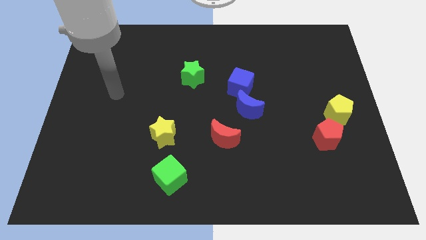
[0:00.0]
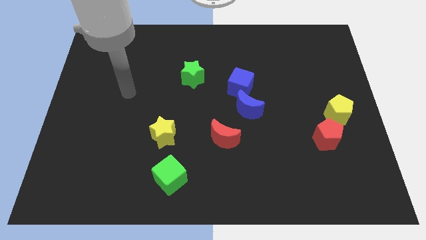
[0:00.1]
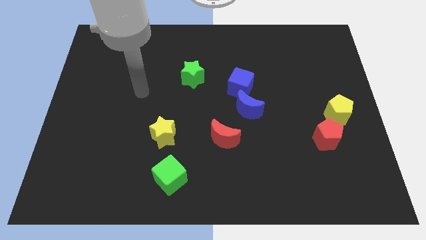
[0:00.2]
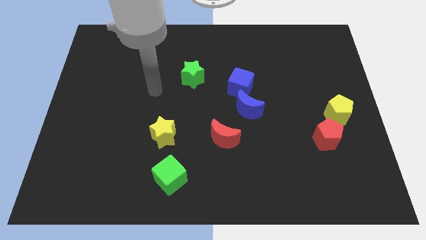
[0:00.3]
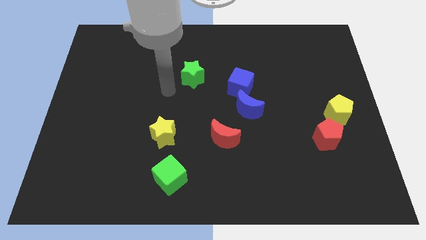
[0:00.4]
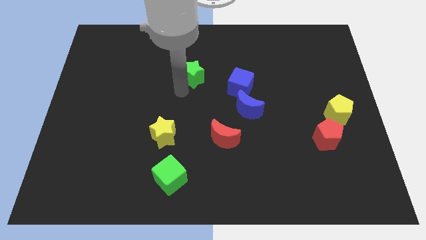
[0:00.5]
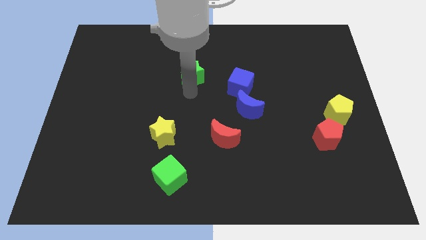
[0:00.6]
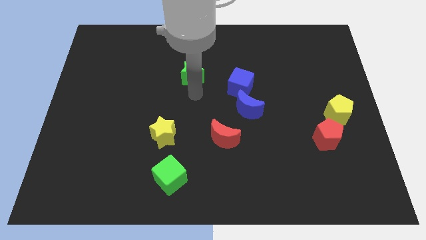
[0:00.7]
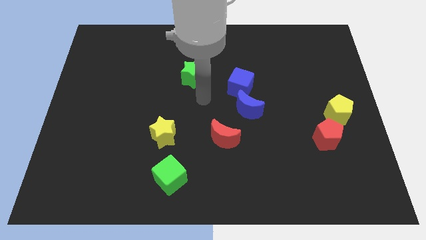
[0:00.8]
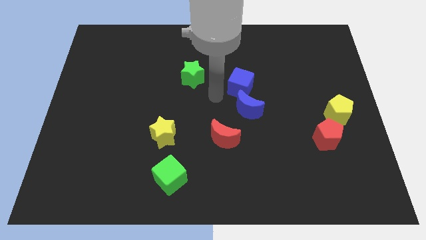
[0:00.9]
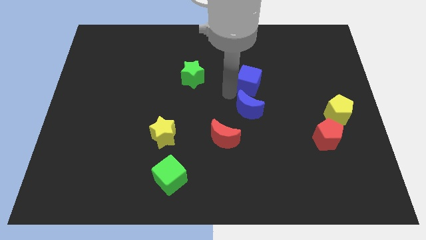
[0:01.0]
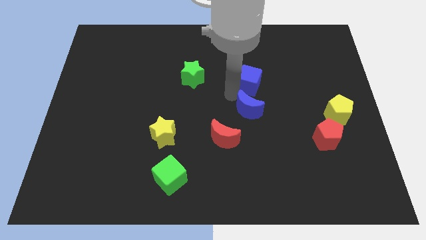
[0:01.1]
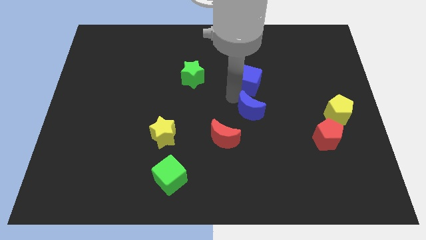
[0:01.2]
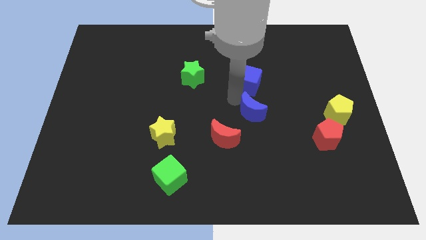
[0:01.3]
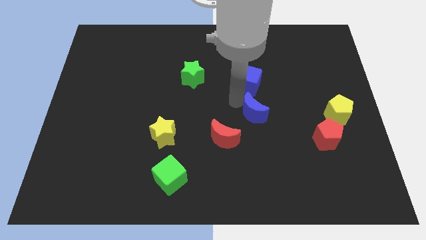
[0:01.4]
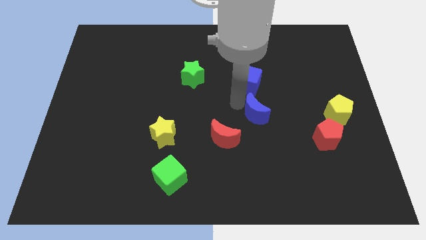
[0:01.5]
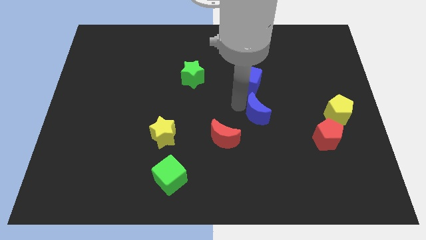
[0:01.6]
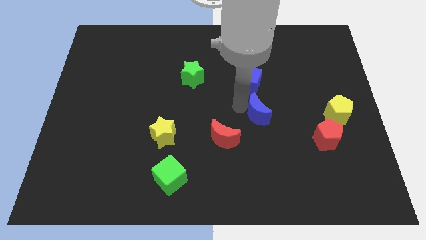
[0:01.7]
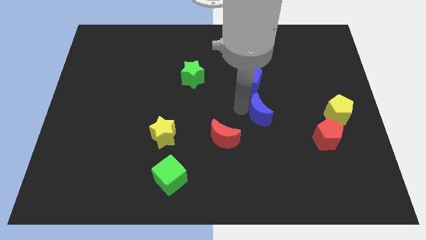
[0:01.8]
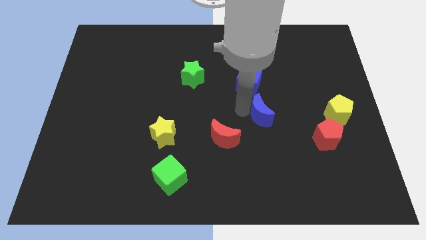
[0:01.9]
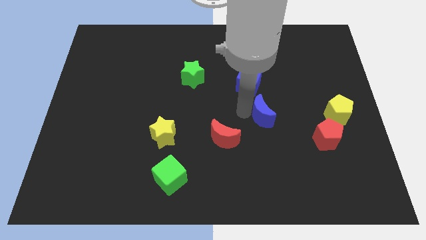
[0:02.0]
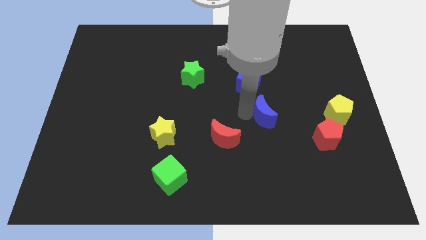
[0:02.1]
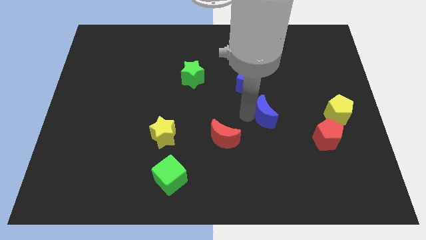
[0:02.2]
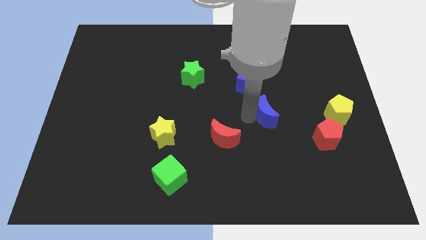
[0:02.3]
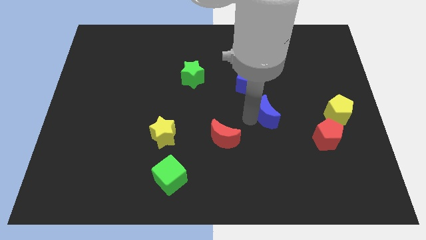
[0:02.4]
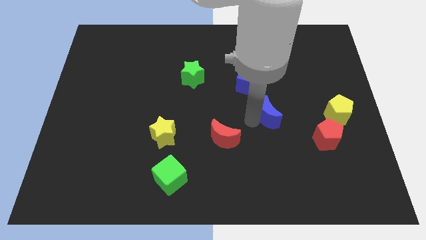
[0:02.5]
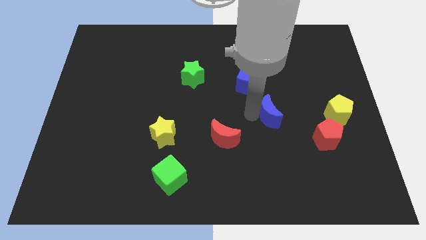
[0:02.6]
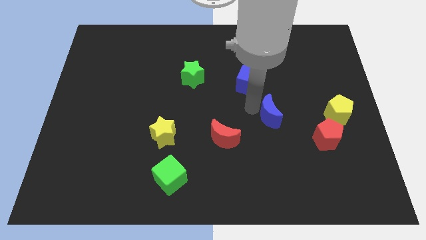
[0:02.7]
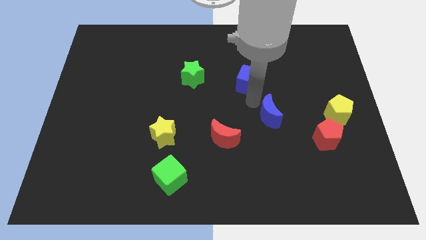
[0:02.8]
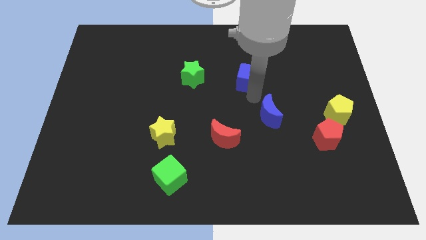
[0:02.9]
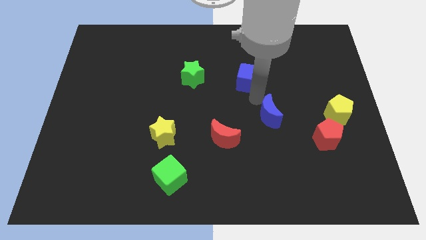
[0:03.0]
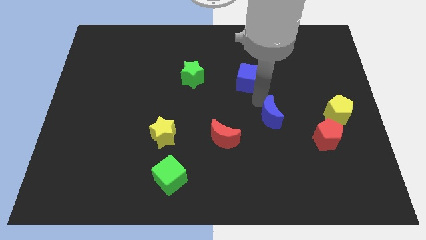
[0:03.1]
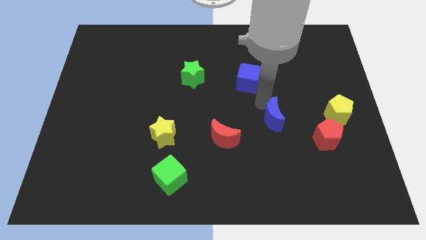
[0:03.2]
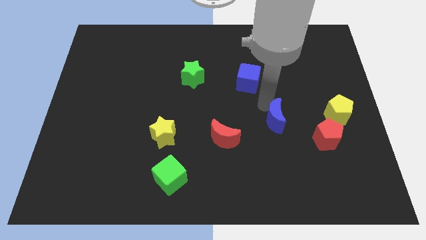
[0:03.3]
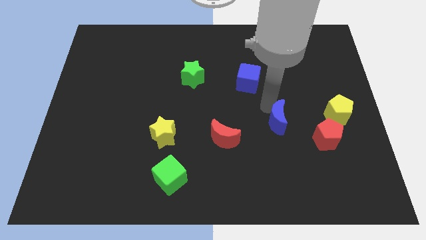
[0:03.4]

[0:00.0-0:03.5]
move the blue moon down and to the right a little bit

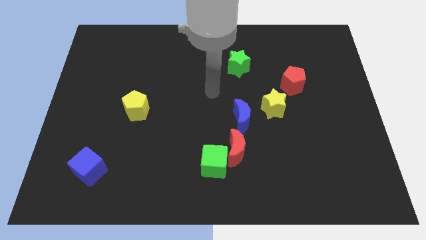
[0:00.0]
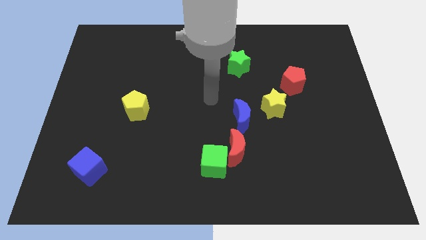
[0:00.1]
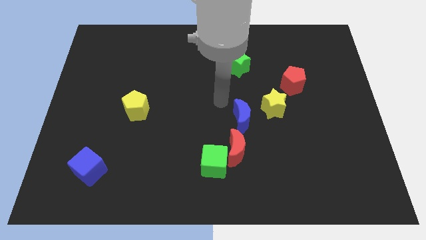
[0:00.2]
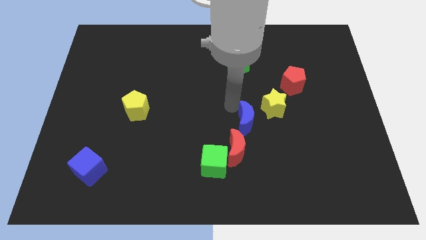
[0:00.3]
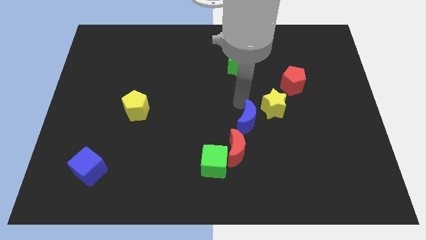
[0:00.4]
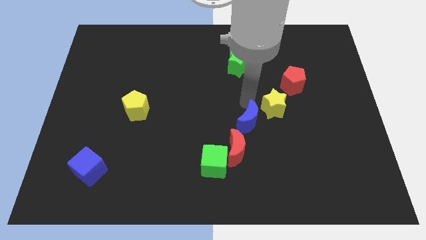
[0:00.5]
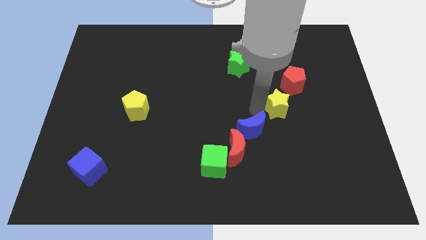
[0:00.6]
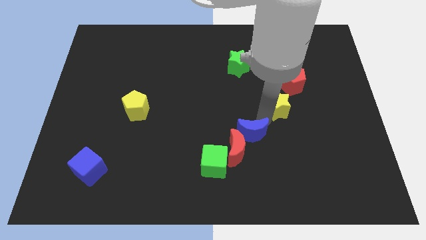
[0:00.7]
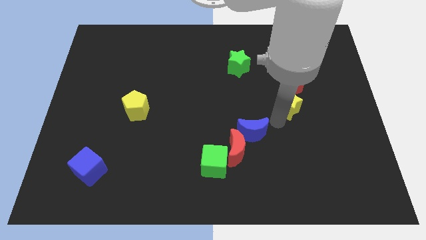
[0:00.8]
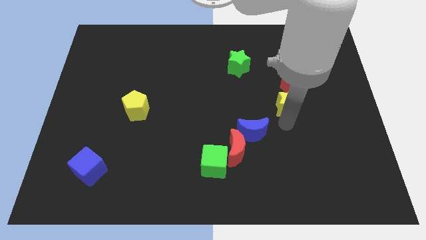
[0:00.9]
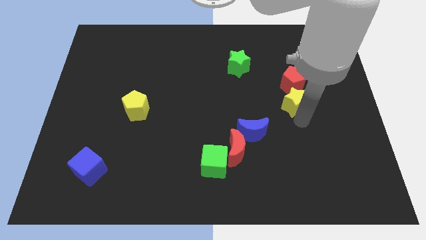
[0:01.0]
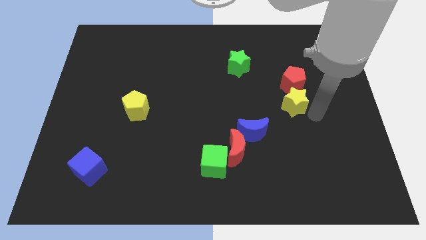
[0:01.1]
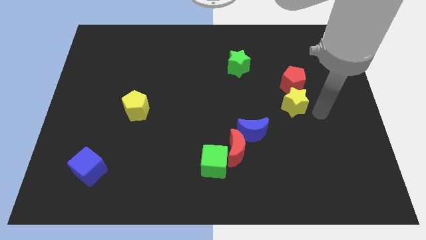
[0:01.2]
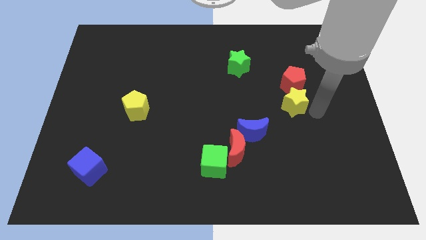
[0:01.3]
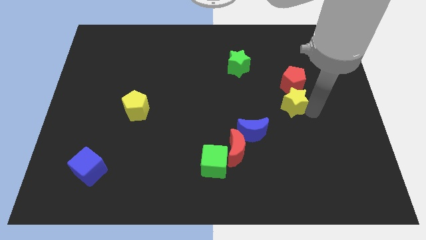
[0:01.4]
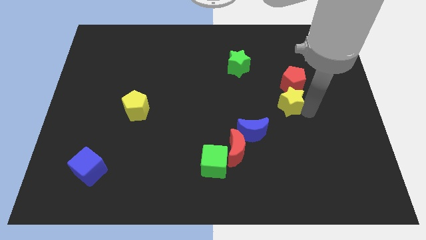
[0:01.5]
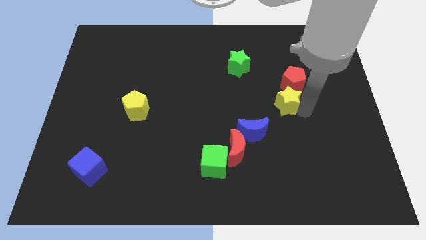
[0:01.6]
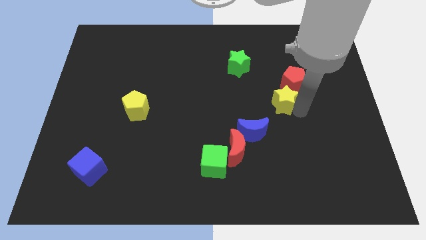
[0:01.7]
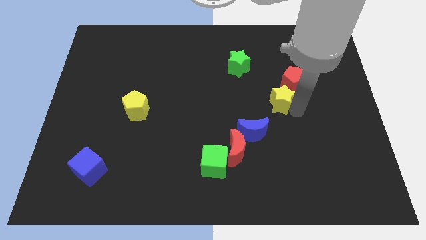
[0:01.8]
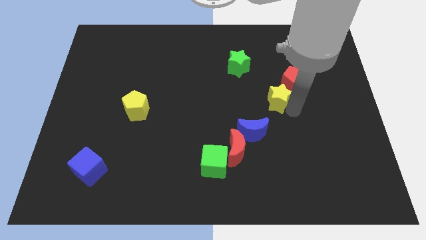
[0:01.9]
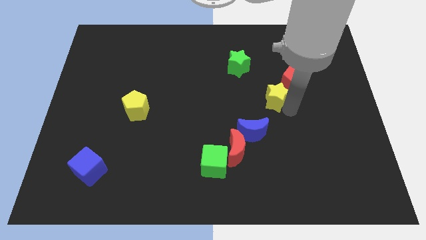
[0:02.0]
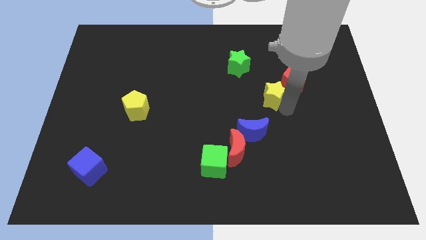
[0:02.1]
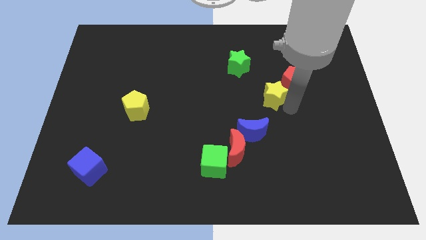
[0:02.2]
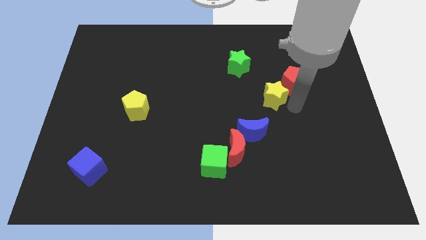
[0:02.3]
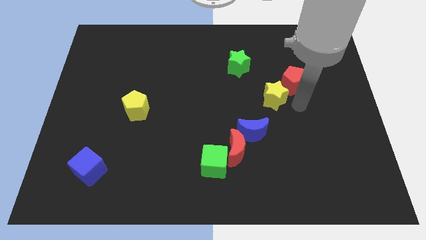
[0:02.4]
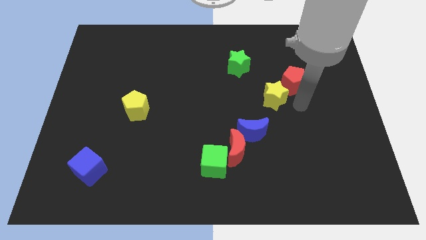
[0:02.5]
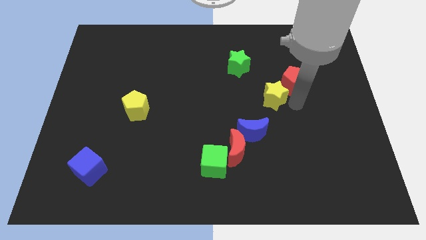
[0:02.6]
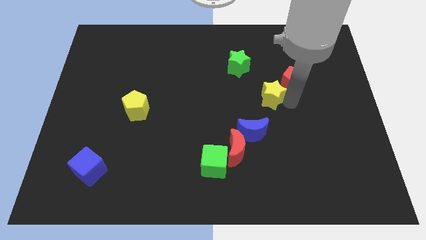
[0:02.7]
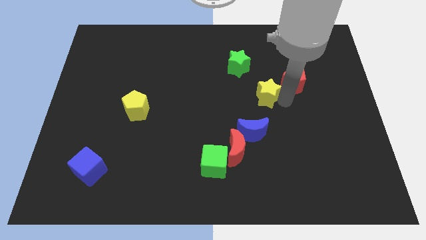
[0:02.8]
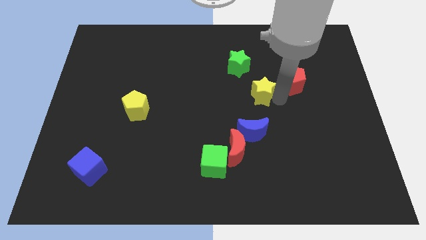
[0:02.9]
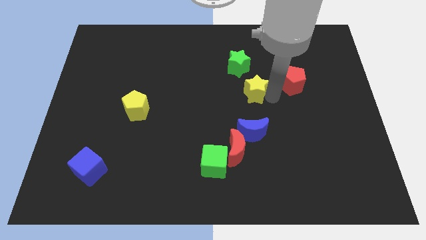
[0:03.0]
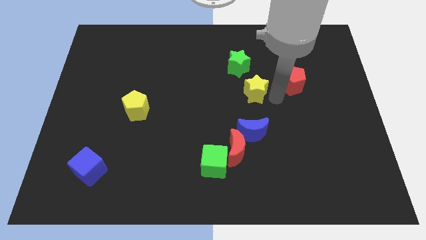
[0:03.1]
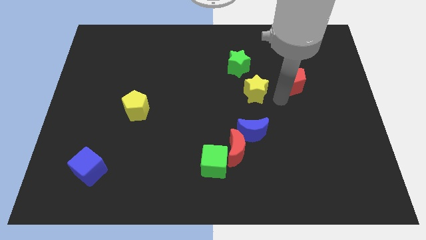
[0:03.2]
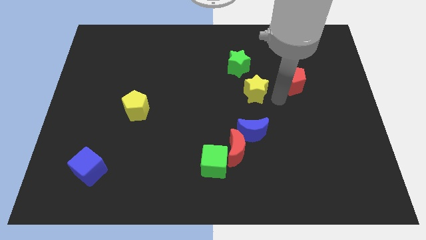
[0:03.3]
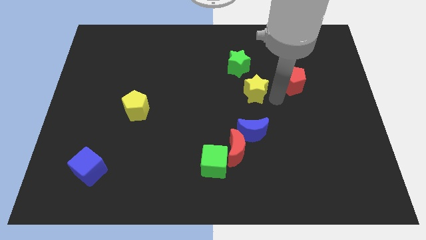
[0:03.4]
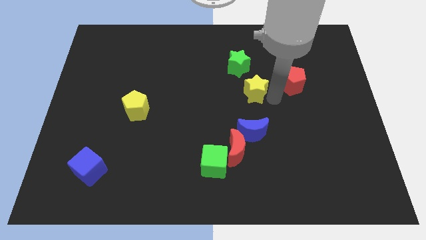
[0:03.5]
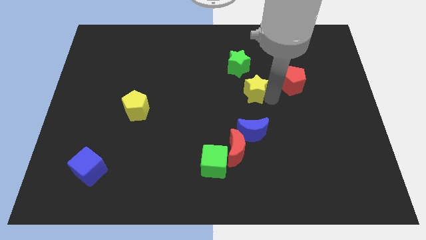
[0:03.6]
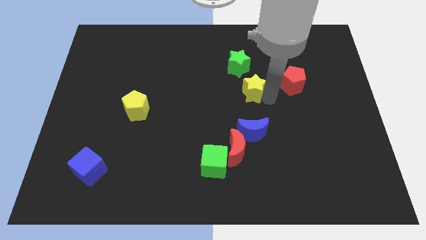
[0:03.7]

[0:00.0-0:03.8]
slightly push the yellow star up and to the left

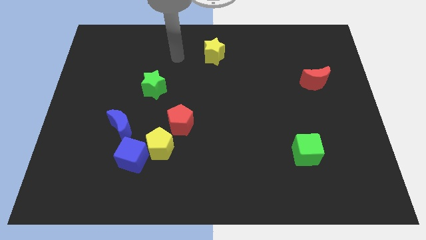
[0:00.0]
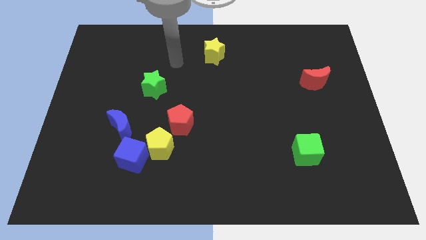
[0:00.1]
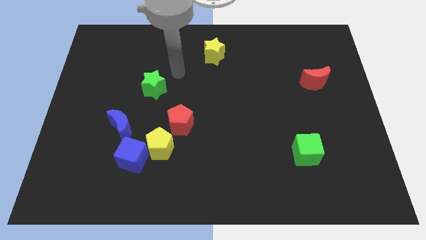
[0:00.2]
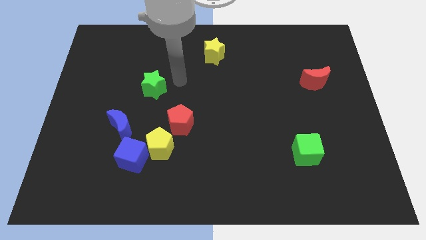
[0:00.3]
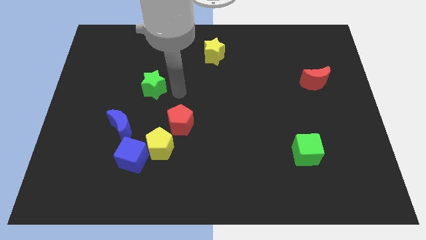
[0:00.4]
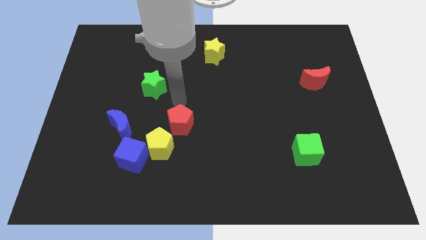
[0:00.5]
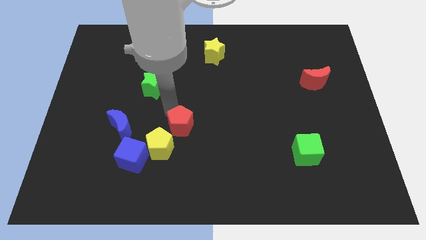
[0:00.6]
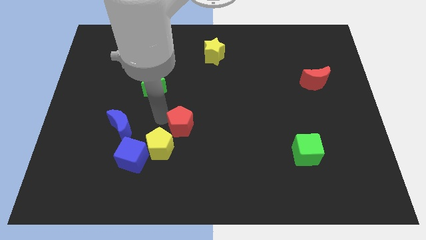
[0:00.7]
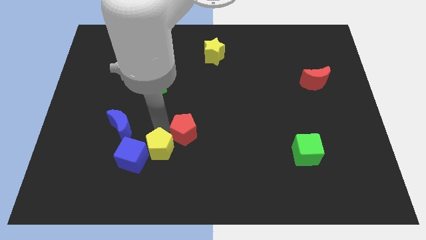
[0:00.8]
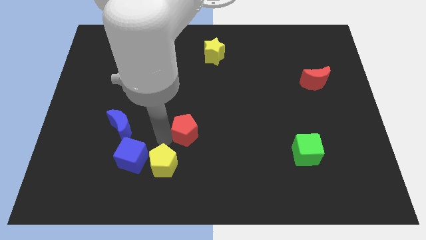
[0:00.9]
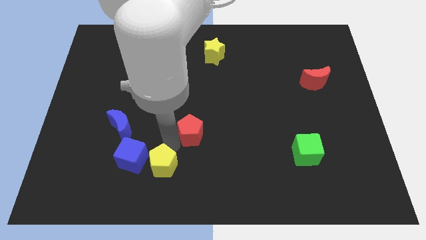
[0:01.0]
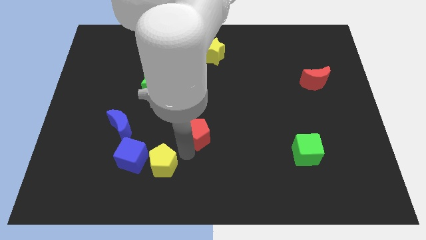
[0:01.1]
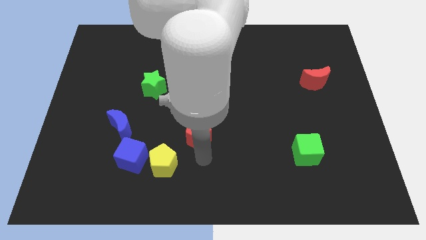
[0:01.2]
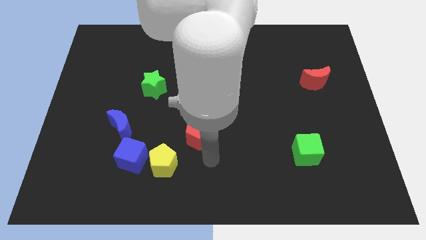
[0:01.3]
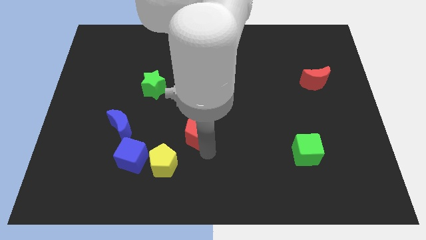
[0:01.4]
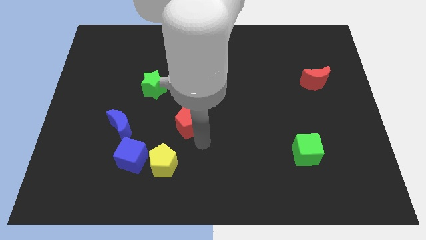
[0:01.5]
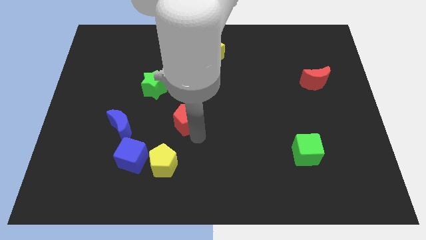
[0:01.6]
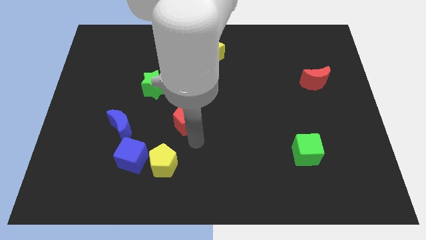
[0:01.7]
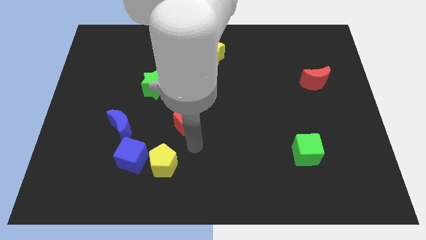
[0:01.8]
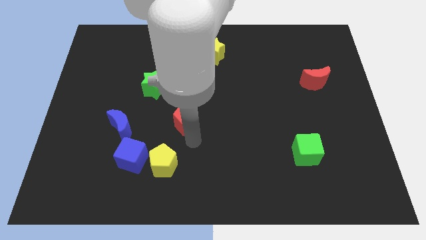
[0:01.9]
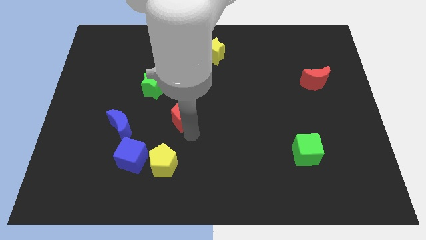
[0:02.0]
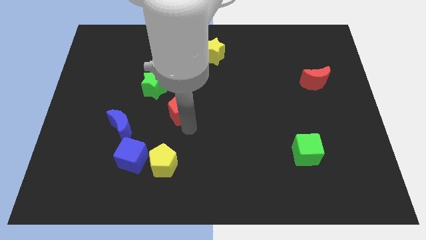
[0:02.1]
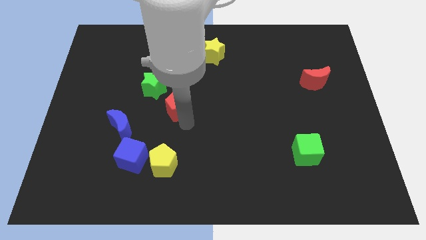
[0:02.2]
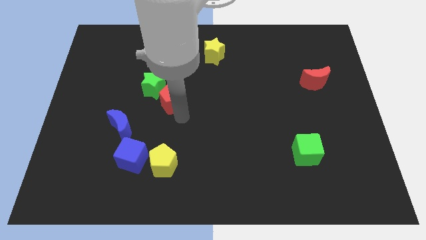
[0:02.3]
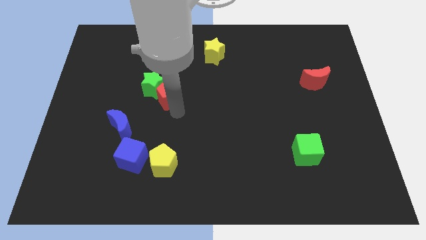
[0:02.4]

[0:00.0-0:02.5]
slightly slide the red pentagon upwards
